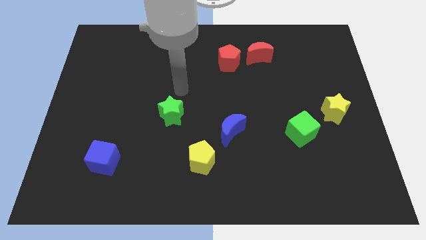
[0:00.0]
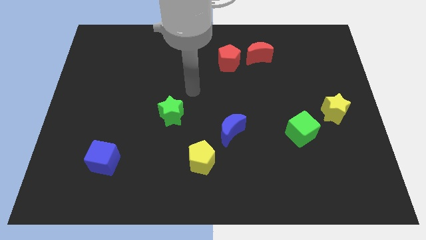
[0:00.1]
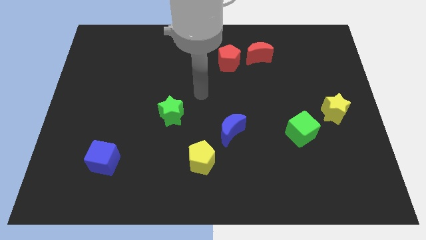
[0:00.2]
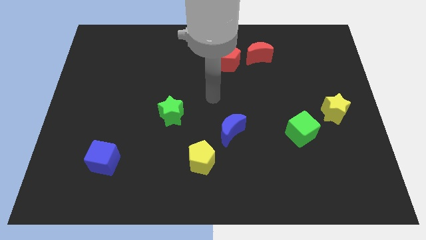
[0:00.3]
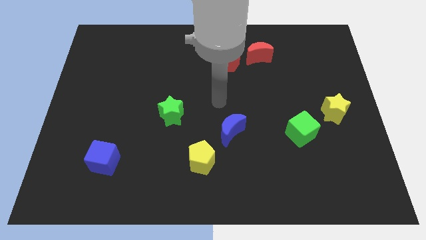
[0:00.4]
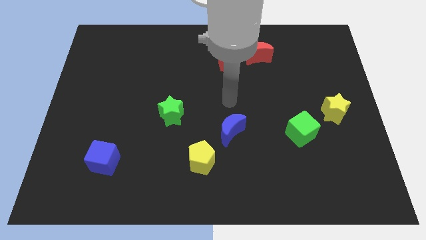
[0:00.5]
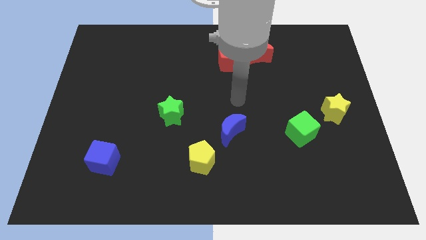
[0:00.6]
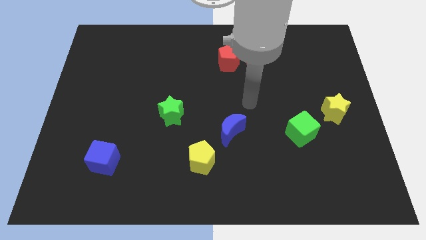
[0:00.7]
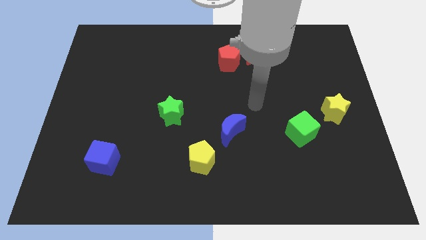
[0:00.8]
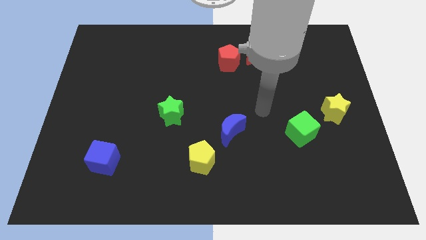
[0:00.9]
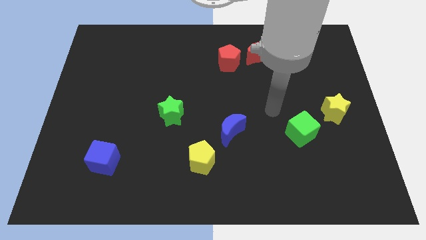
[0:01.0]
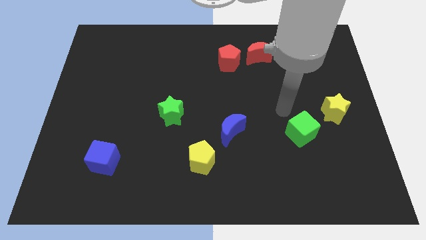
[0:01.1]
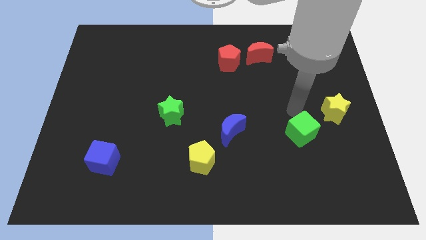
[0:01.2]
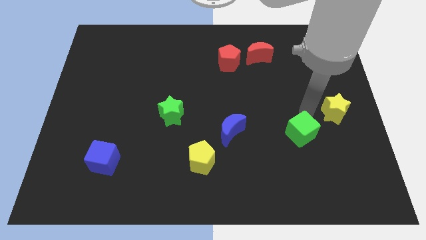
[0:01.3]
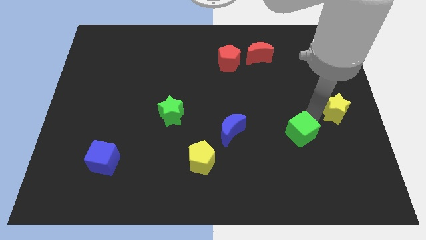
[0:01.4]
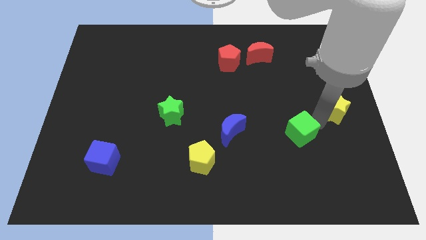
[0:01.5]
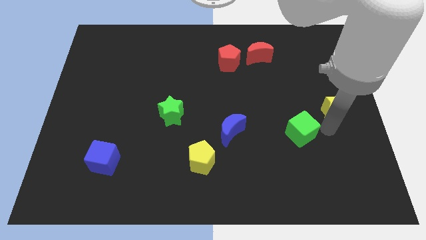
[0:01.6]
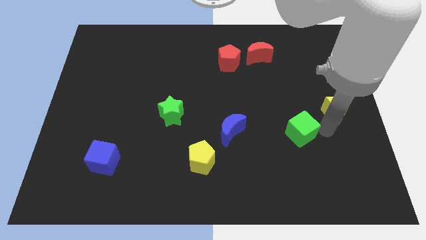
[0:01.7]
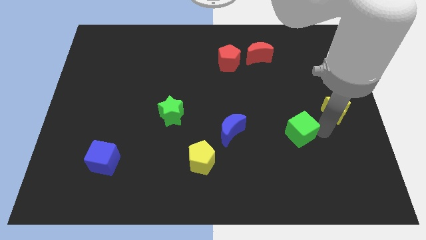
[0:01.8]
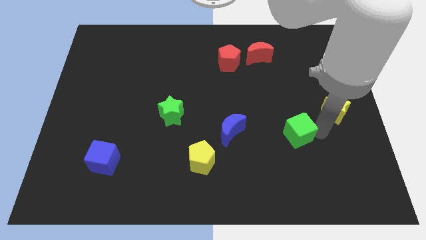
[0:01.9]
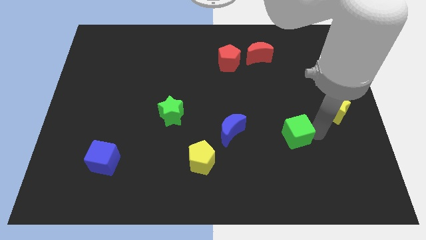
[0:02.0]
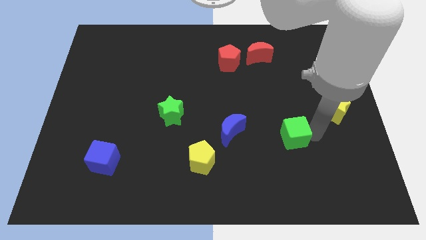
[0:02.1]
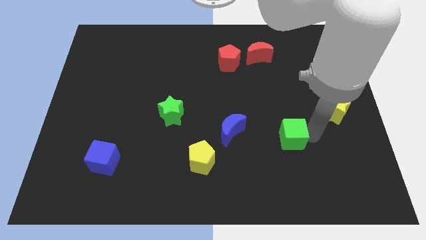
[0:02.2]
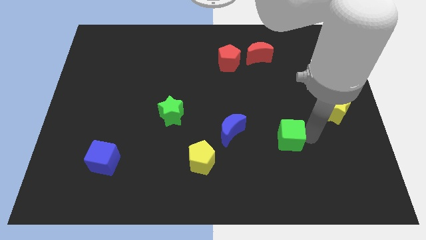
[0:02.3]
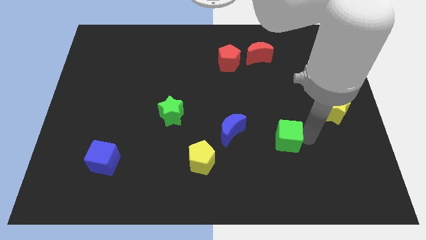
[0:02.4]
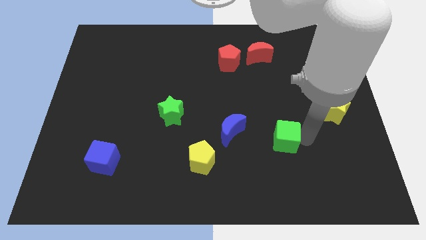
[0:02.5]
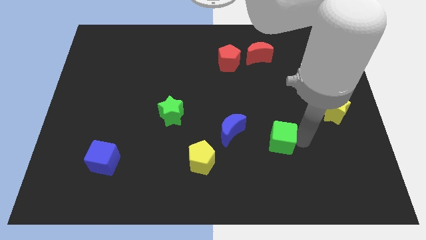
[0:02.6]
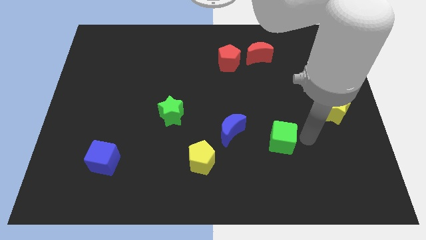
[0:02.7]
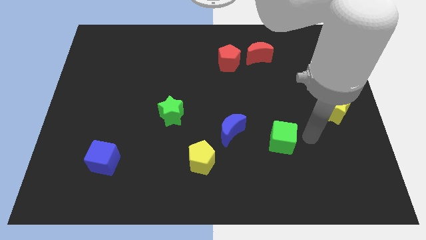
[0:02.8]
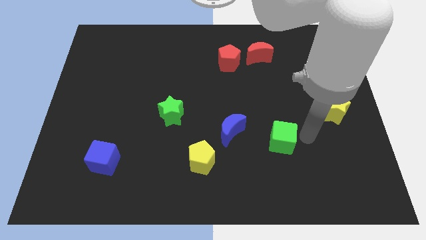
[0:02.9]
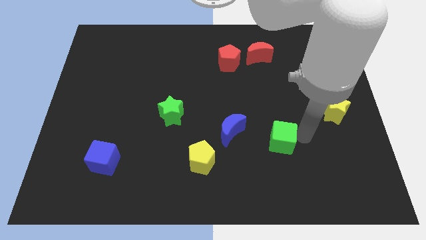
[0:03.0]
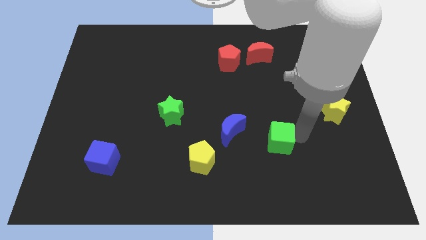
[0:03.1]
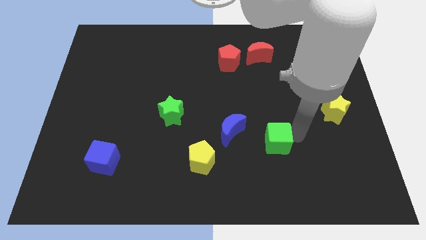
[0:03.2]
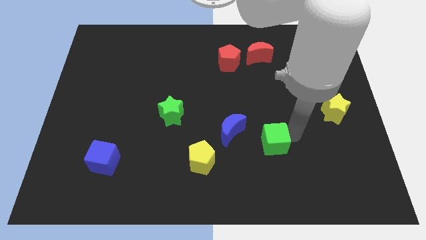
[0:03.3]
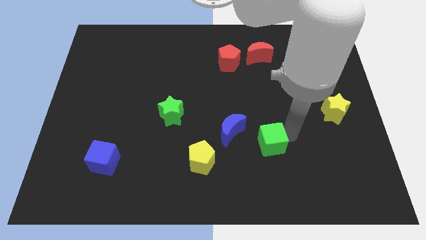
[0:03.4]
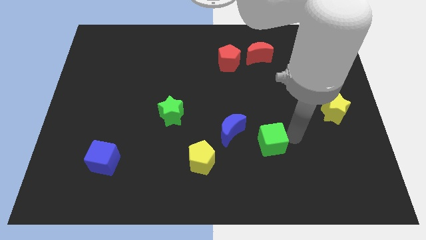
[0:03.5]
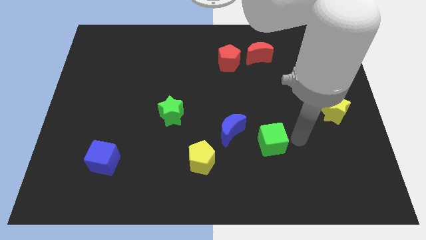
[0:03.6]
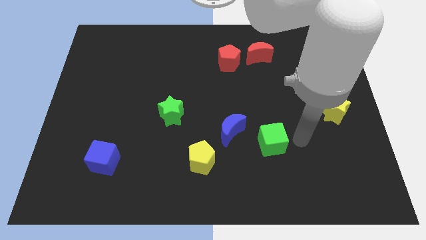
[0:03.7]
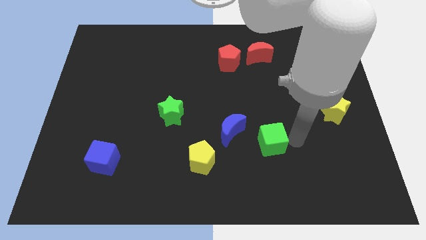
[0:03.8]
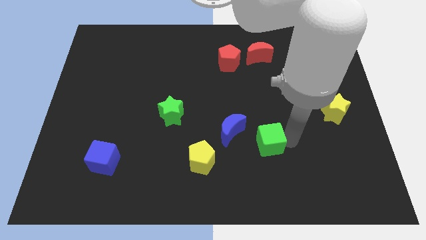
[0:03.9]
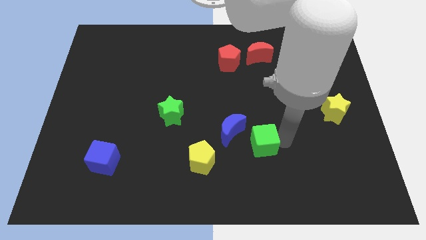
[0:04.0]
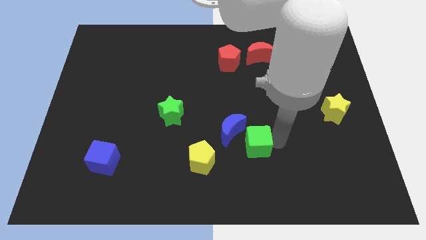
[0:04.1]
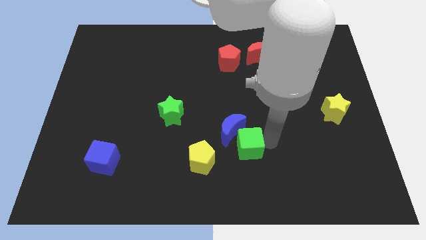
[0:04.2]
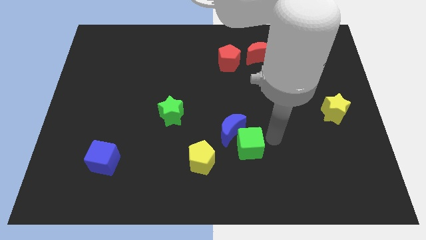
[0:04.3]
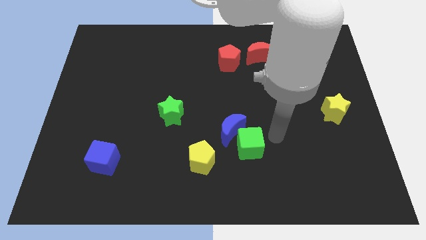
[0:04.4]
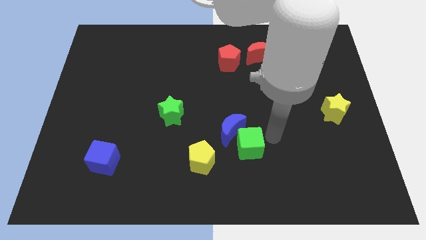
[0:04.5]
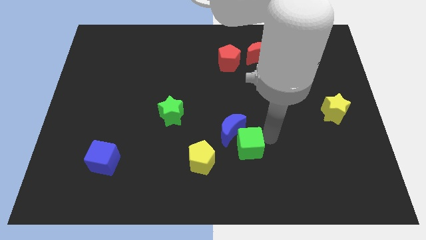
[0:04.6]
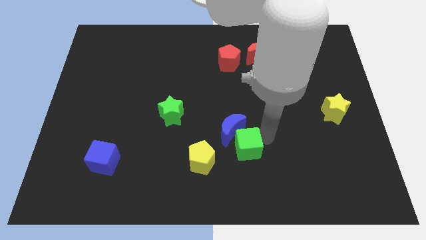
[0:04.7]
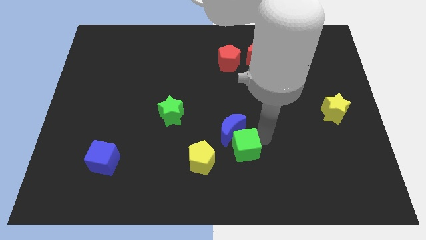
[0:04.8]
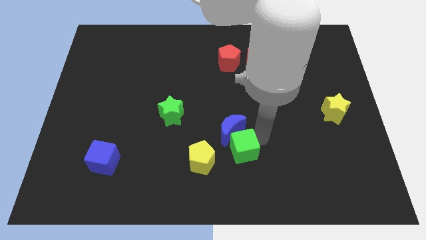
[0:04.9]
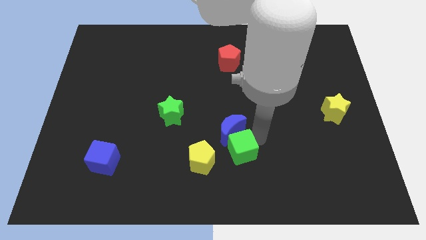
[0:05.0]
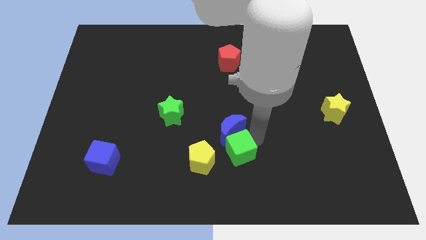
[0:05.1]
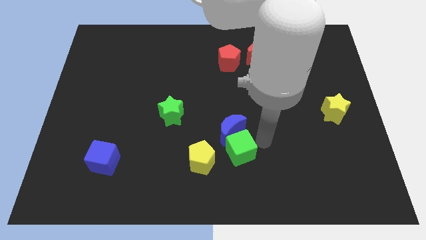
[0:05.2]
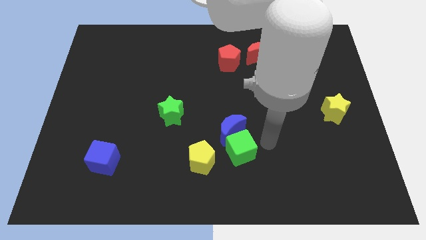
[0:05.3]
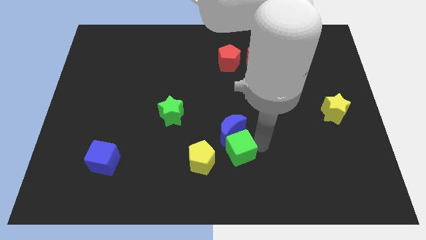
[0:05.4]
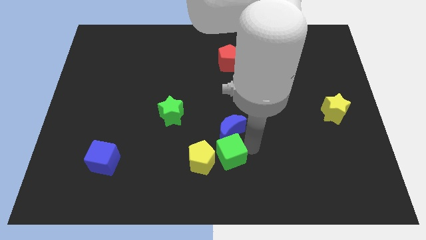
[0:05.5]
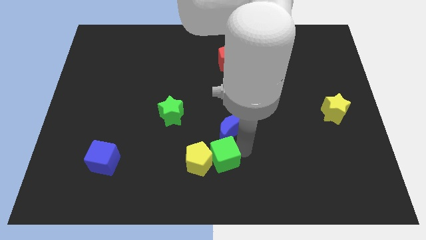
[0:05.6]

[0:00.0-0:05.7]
move the green cube next to the yellow pentagon

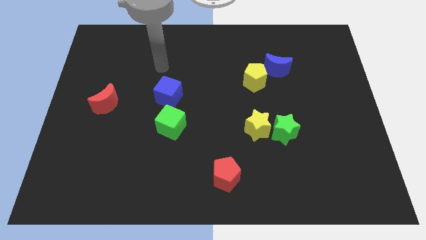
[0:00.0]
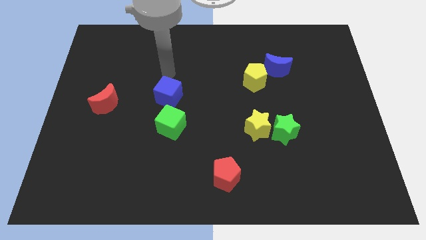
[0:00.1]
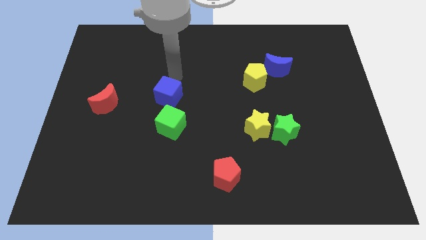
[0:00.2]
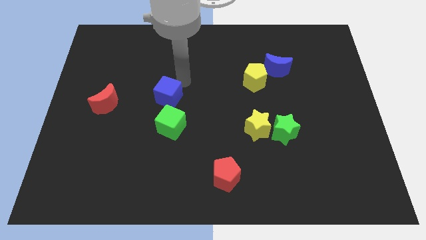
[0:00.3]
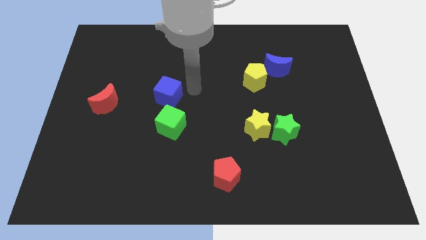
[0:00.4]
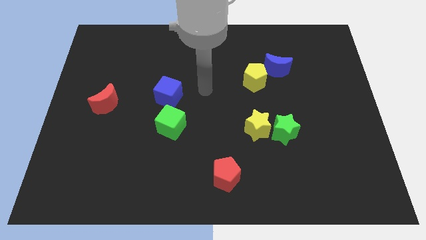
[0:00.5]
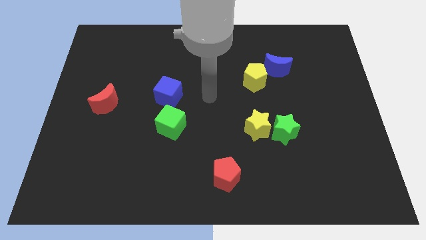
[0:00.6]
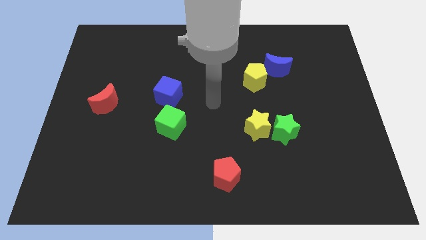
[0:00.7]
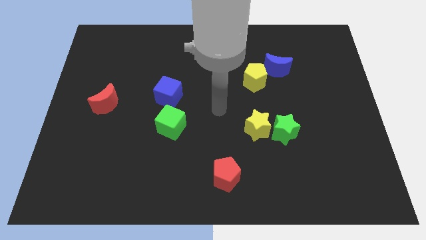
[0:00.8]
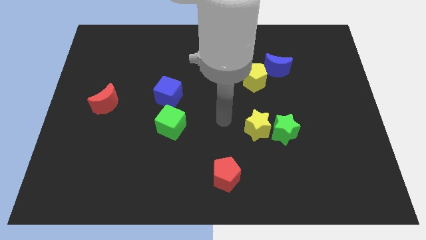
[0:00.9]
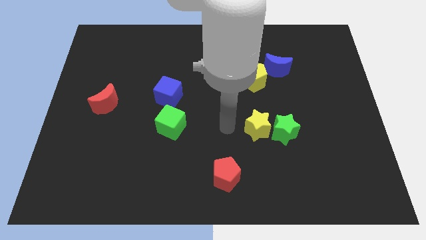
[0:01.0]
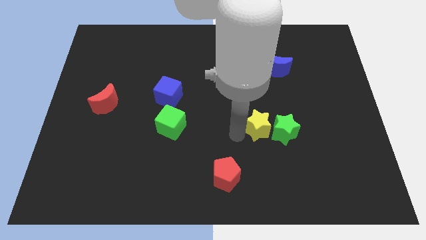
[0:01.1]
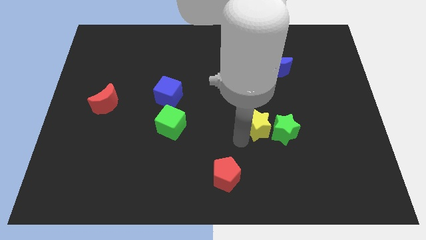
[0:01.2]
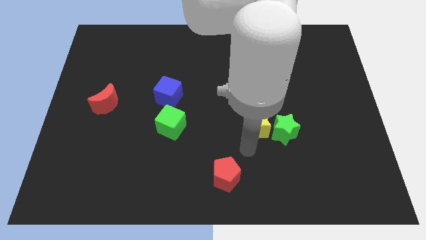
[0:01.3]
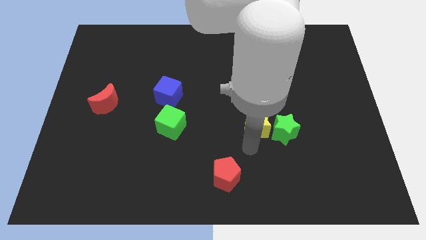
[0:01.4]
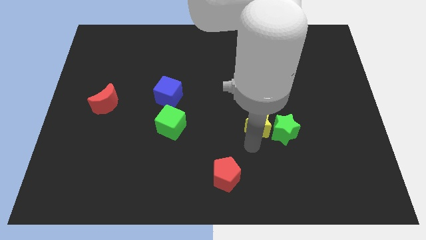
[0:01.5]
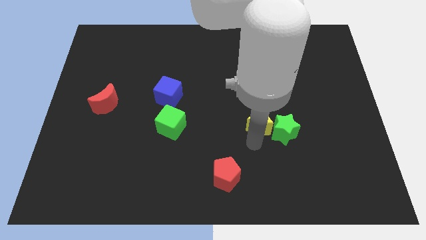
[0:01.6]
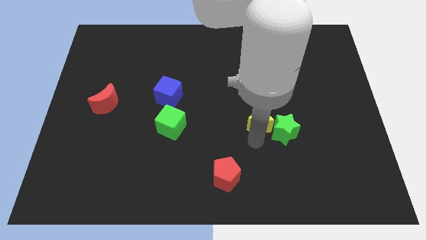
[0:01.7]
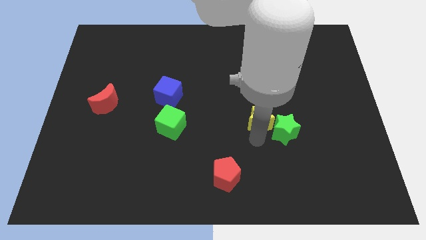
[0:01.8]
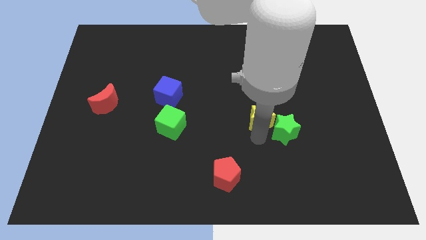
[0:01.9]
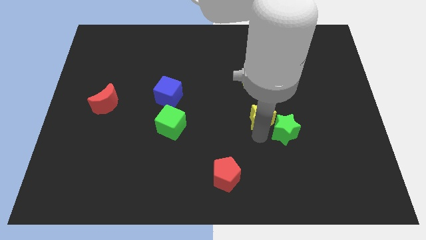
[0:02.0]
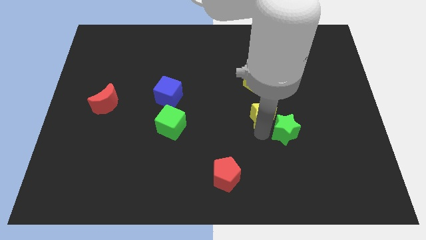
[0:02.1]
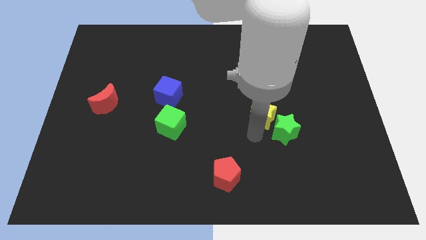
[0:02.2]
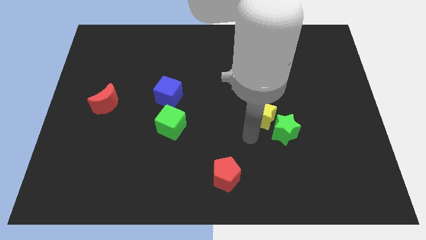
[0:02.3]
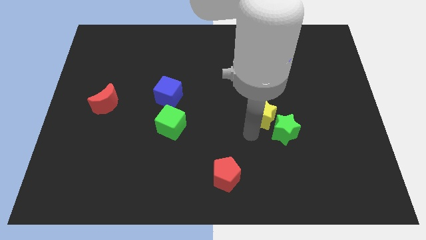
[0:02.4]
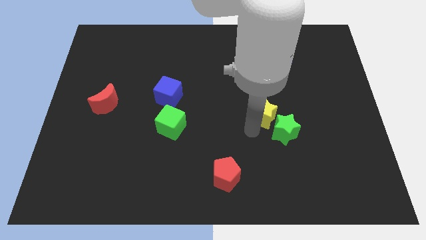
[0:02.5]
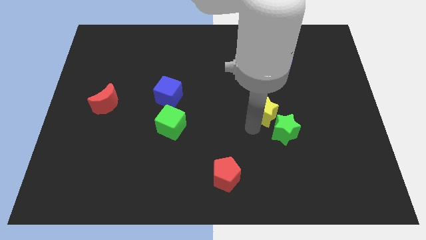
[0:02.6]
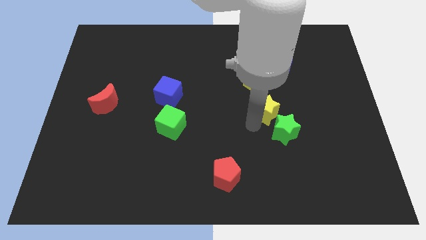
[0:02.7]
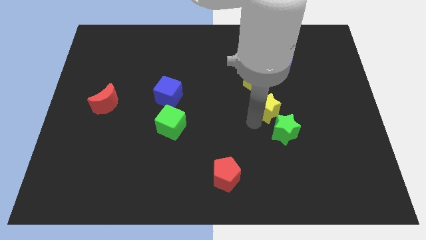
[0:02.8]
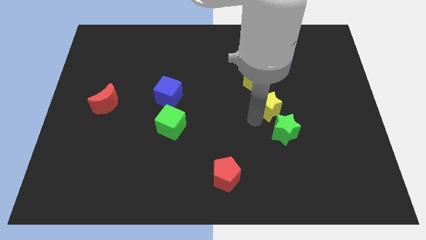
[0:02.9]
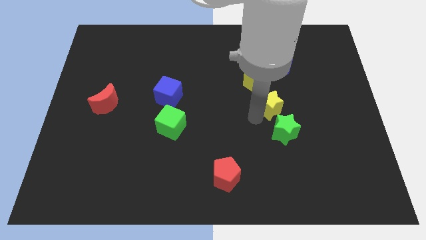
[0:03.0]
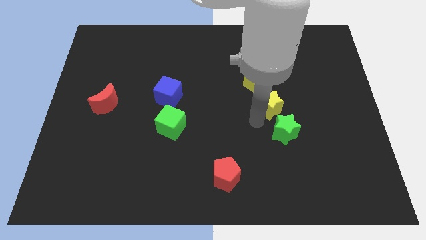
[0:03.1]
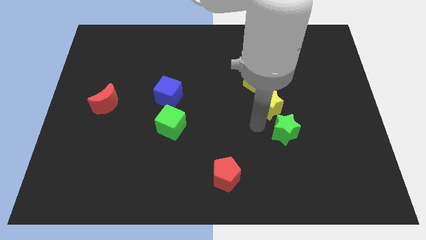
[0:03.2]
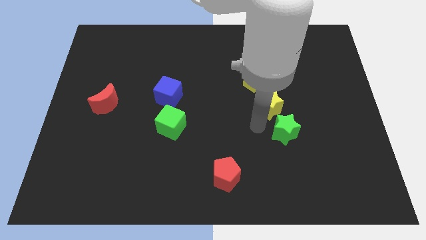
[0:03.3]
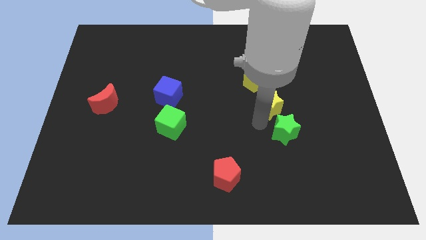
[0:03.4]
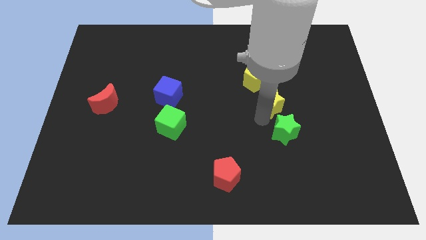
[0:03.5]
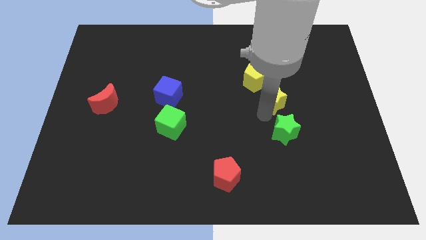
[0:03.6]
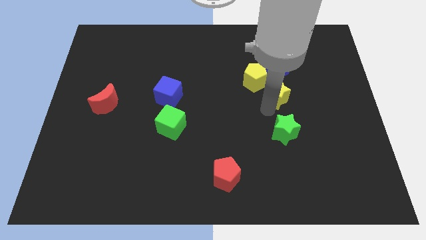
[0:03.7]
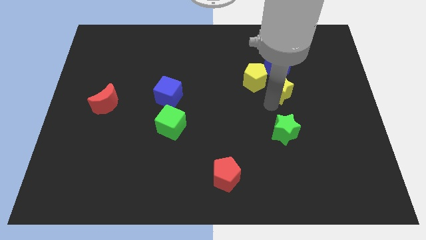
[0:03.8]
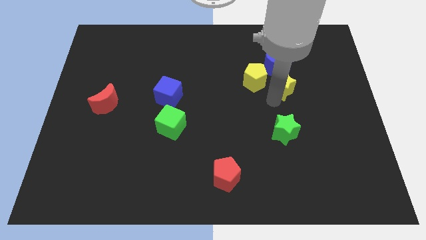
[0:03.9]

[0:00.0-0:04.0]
move the yellow star next to the blue moon
